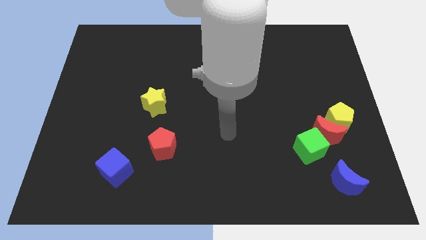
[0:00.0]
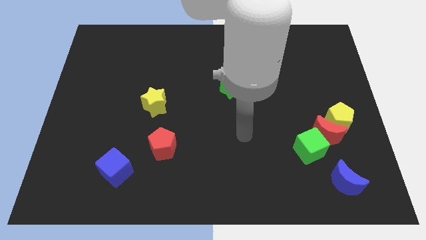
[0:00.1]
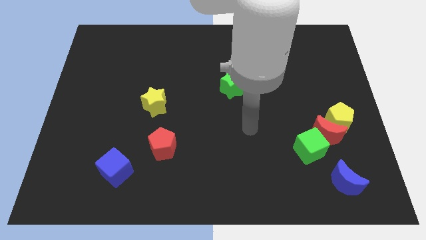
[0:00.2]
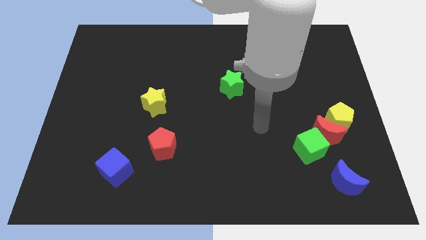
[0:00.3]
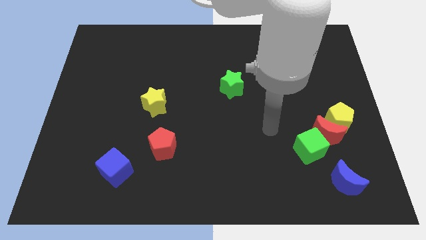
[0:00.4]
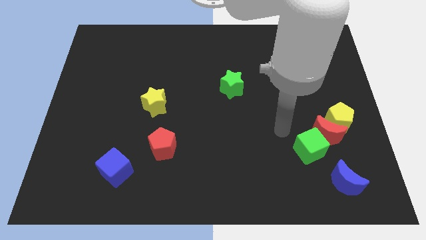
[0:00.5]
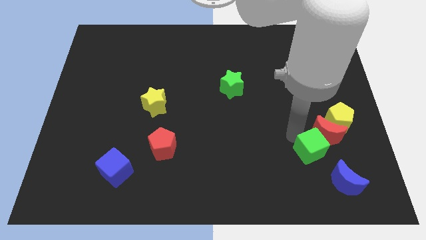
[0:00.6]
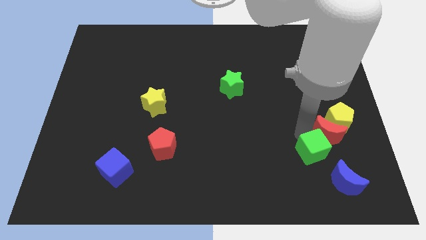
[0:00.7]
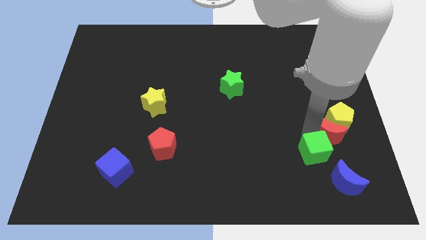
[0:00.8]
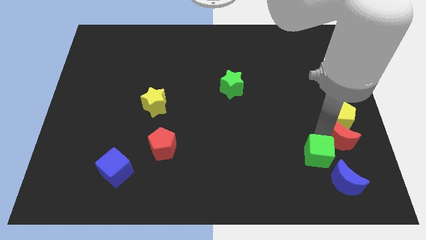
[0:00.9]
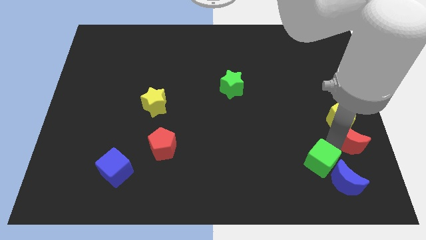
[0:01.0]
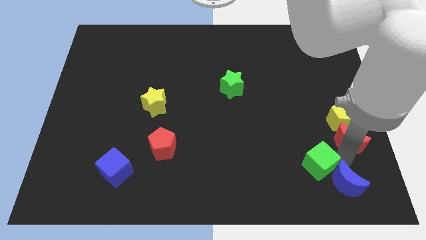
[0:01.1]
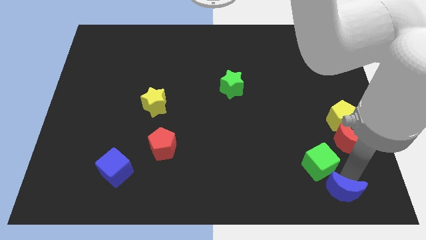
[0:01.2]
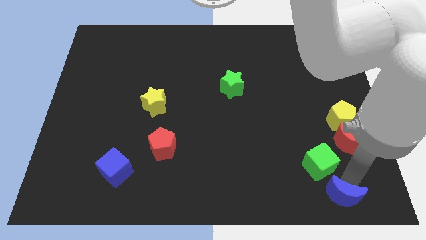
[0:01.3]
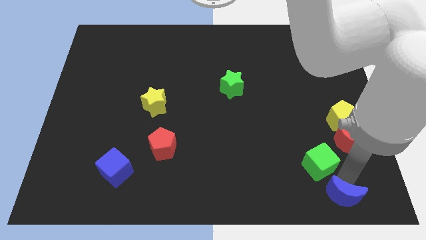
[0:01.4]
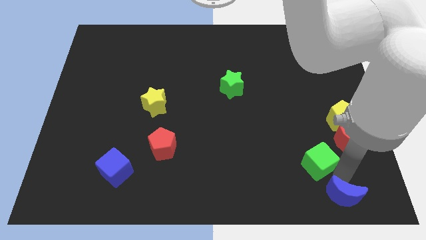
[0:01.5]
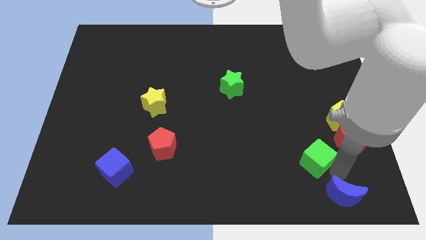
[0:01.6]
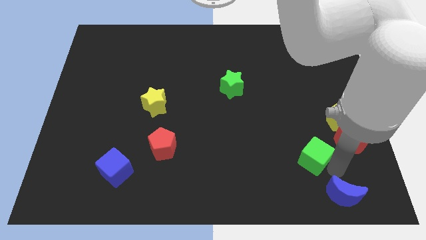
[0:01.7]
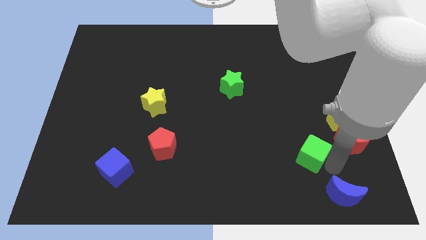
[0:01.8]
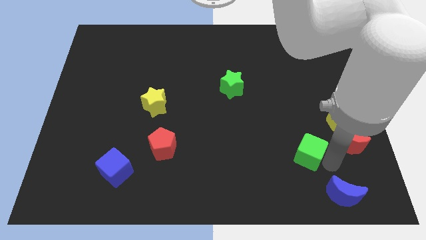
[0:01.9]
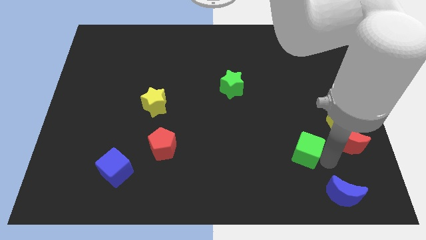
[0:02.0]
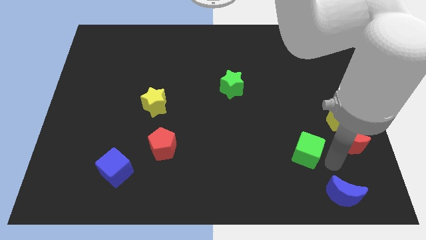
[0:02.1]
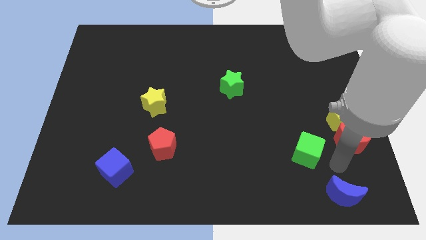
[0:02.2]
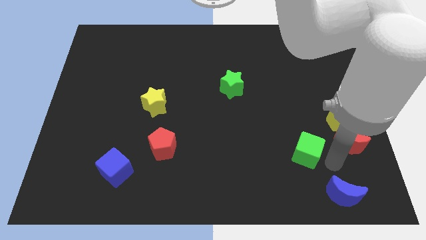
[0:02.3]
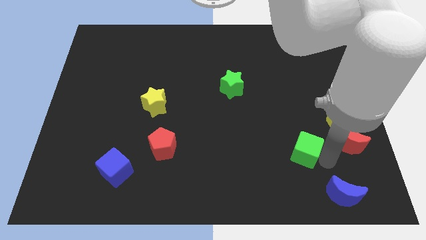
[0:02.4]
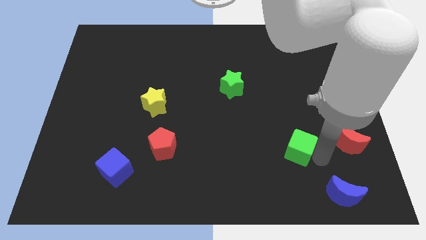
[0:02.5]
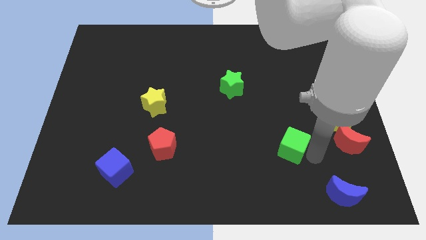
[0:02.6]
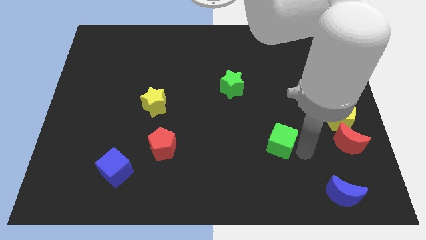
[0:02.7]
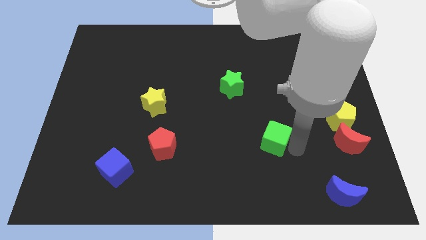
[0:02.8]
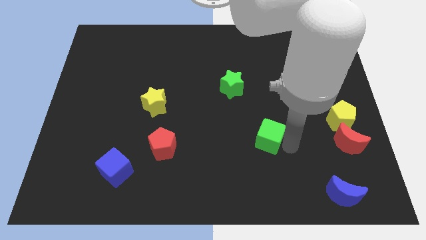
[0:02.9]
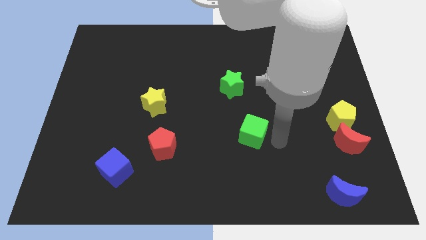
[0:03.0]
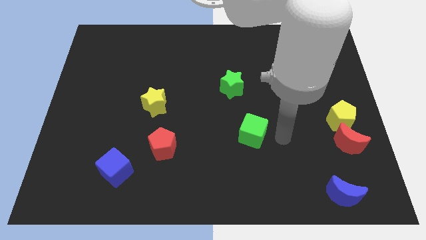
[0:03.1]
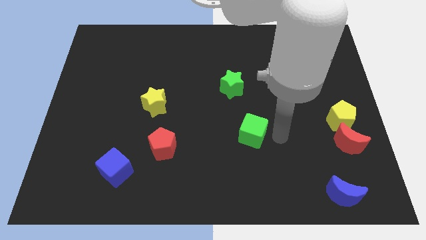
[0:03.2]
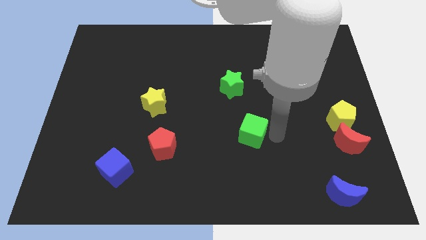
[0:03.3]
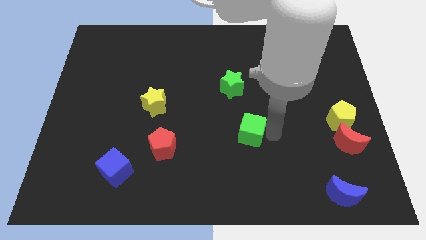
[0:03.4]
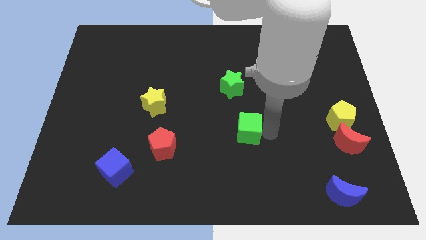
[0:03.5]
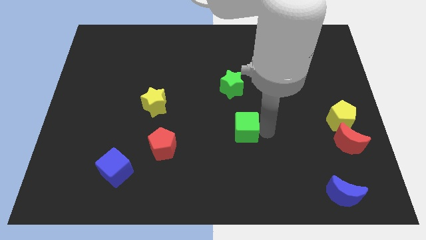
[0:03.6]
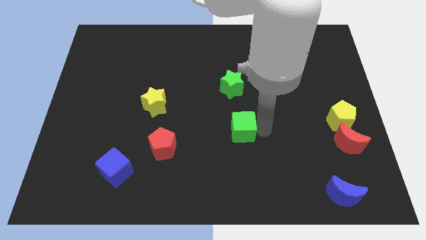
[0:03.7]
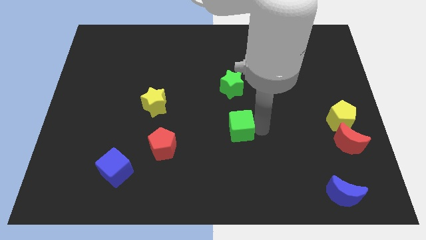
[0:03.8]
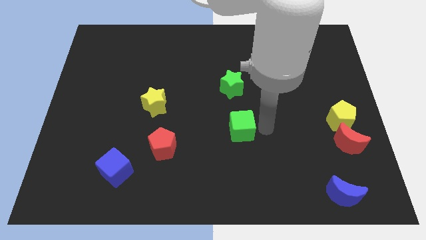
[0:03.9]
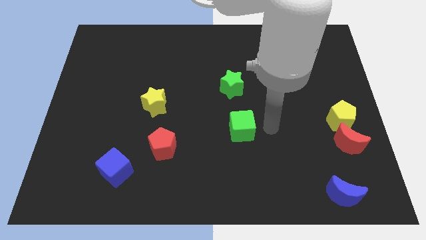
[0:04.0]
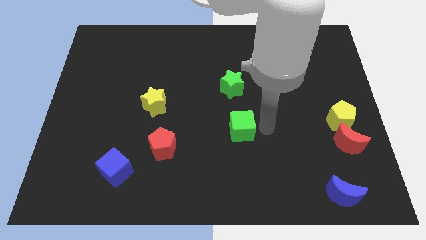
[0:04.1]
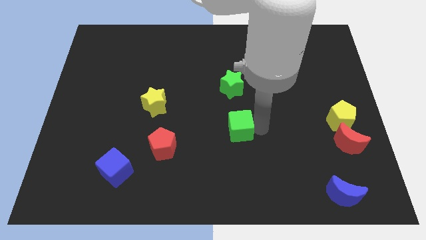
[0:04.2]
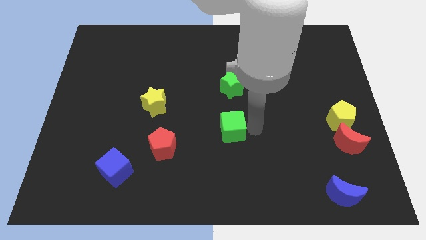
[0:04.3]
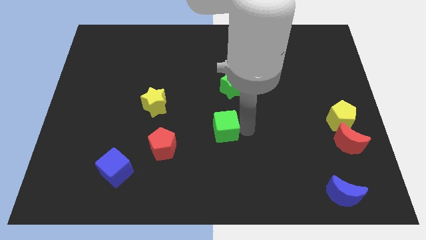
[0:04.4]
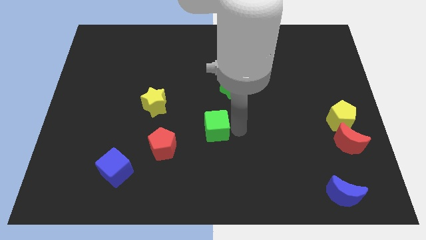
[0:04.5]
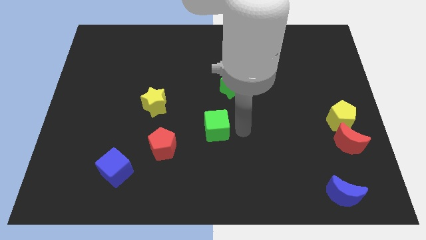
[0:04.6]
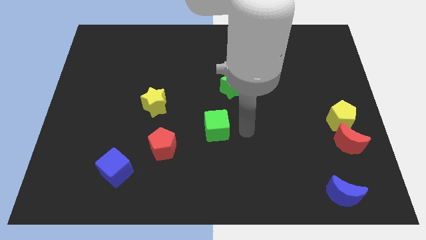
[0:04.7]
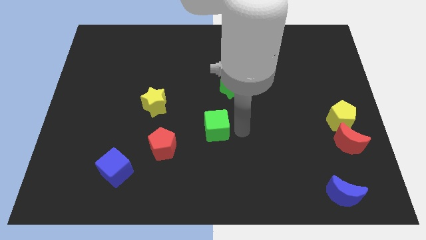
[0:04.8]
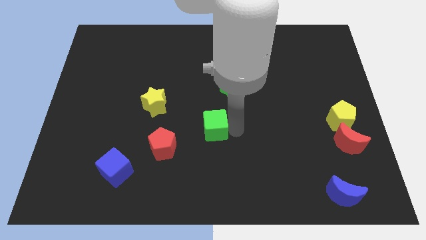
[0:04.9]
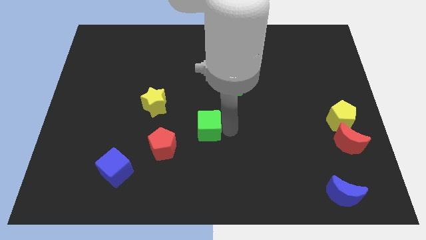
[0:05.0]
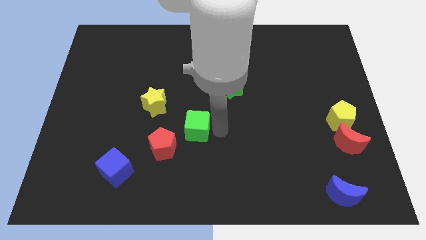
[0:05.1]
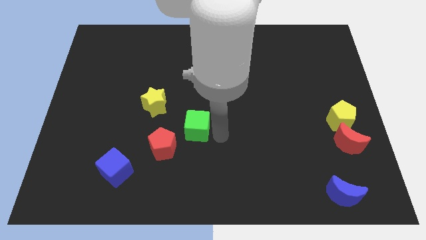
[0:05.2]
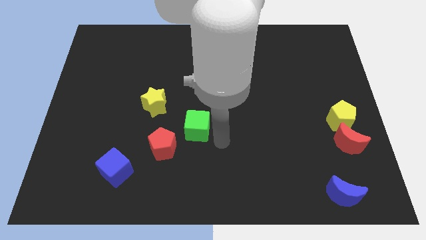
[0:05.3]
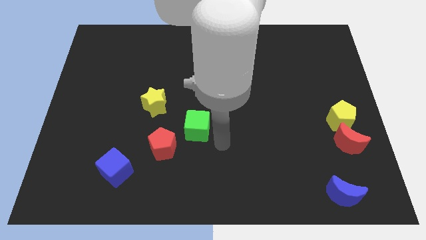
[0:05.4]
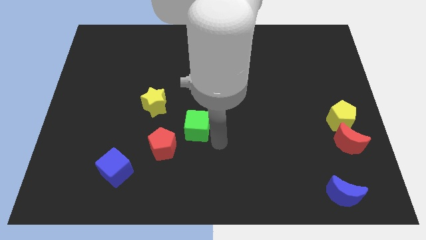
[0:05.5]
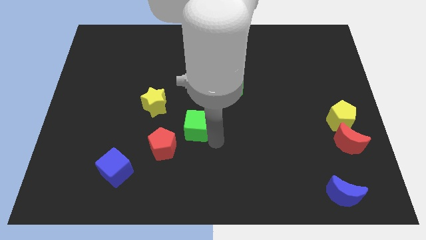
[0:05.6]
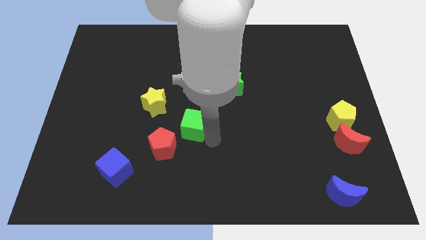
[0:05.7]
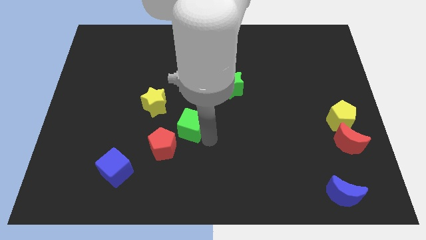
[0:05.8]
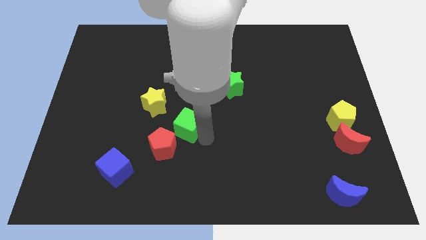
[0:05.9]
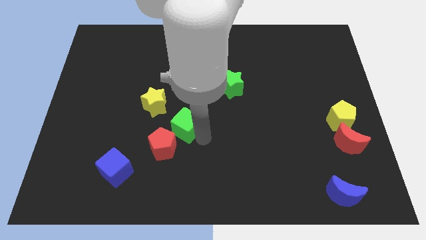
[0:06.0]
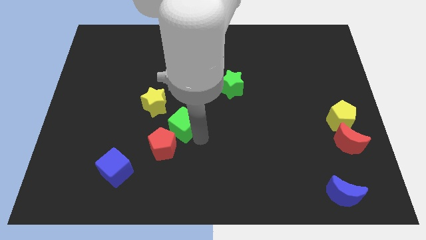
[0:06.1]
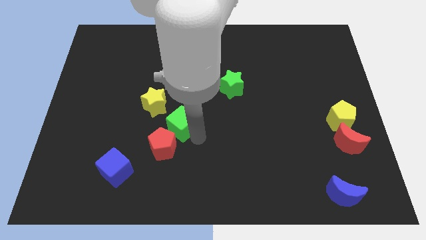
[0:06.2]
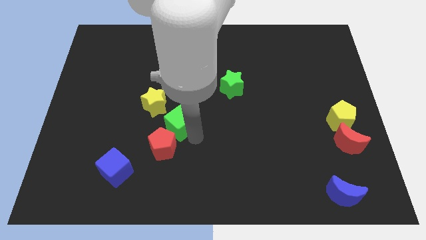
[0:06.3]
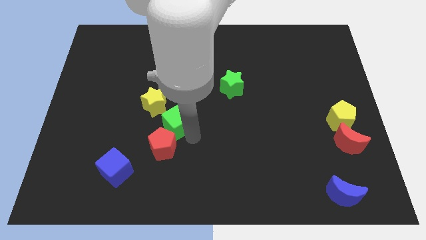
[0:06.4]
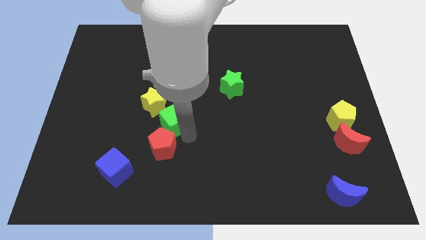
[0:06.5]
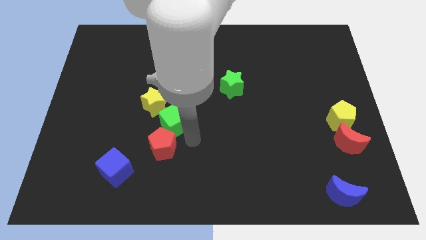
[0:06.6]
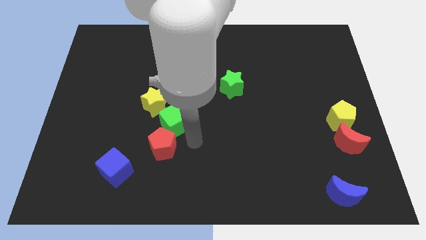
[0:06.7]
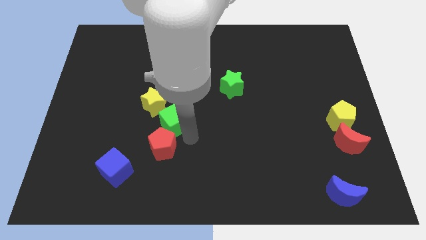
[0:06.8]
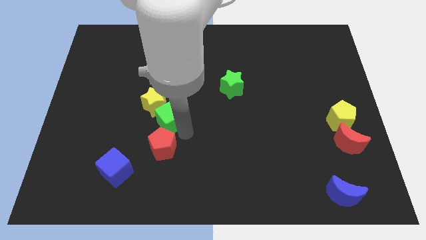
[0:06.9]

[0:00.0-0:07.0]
push the green cube close to the yellow star

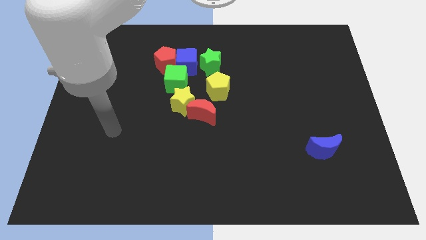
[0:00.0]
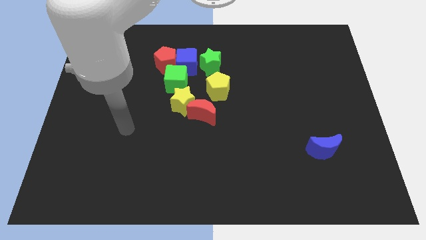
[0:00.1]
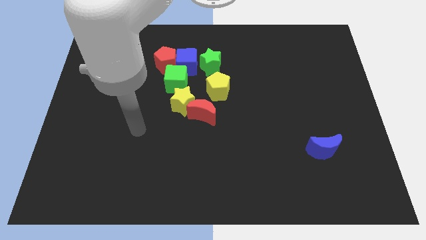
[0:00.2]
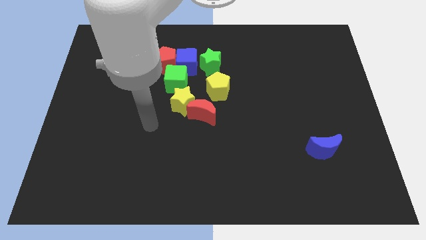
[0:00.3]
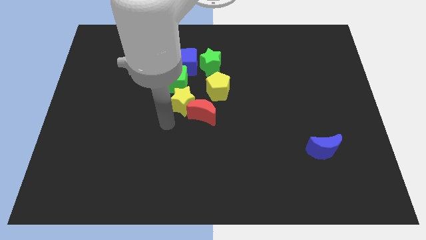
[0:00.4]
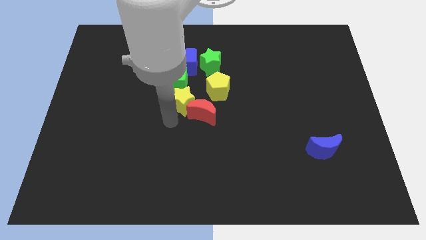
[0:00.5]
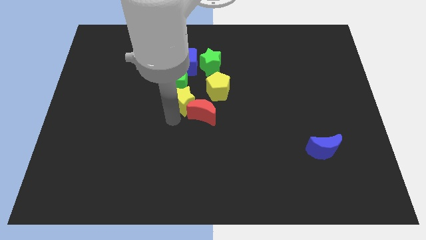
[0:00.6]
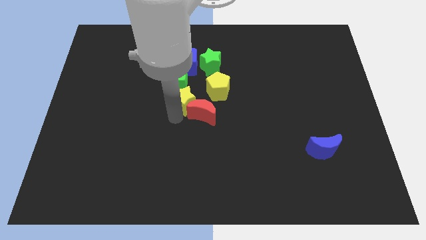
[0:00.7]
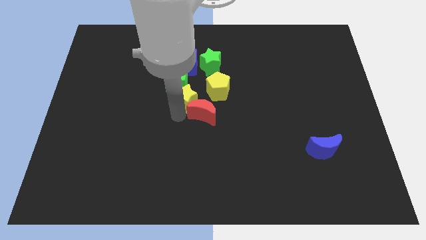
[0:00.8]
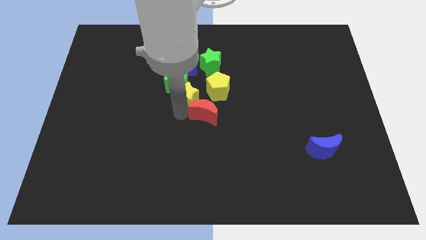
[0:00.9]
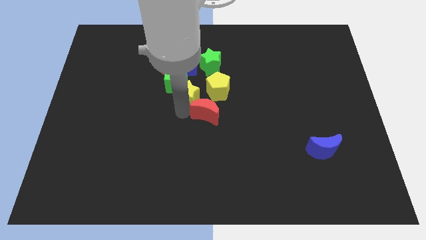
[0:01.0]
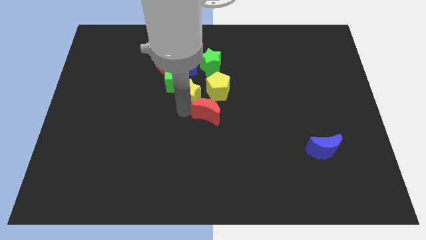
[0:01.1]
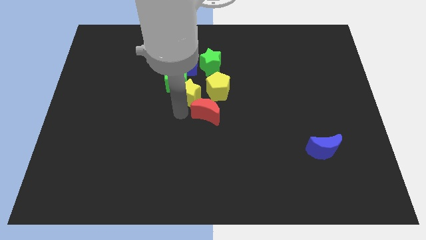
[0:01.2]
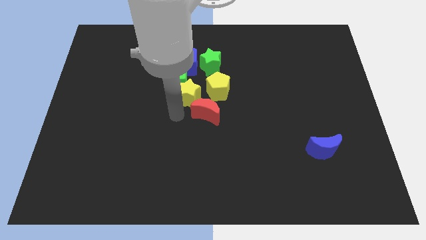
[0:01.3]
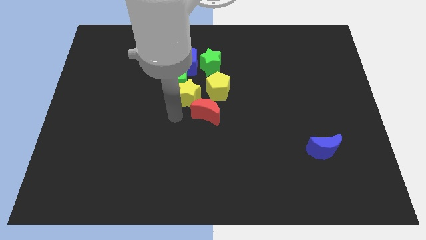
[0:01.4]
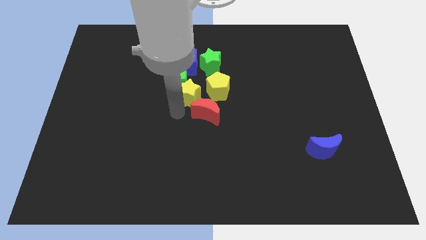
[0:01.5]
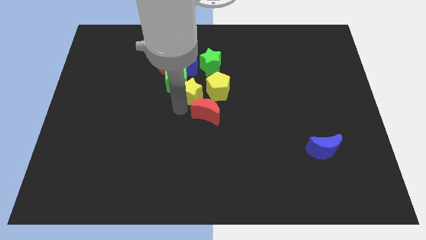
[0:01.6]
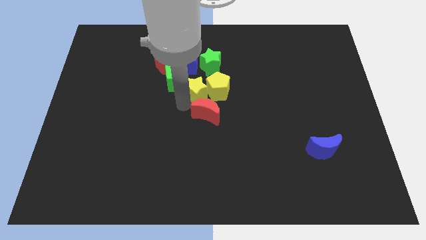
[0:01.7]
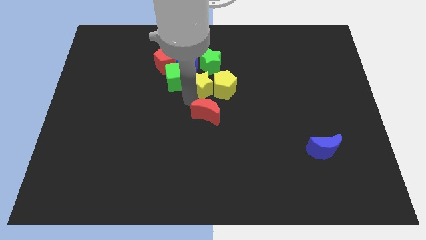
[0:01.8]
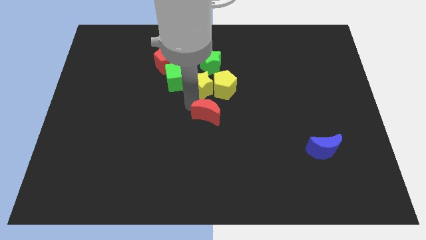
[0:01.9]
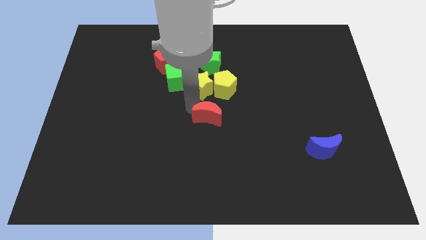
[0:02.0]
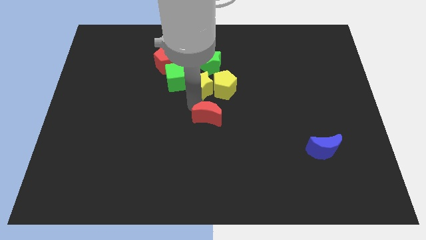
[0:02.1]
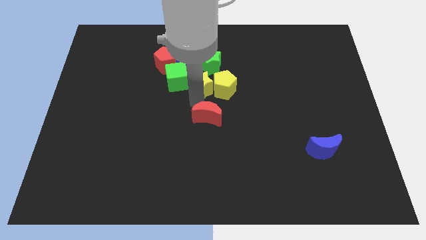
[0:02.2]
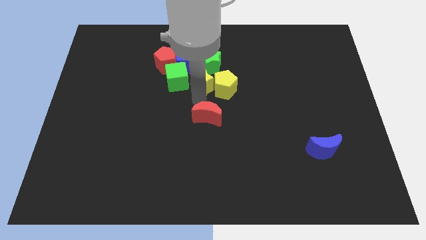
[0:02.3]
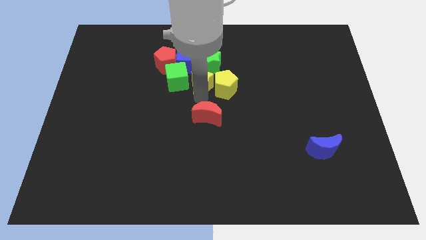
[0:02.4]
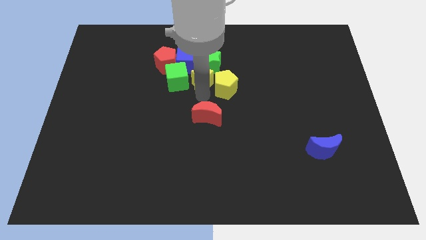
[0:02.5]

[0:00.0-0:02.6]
push the yellow star to the green star
